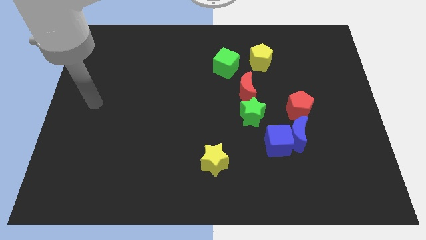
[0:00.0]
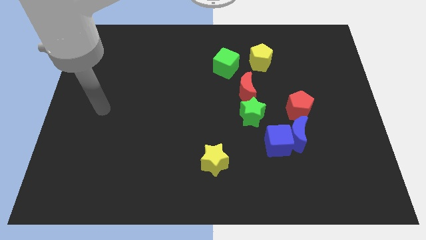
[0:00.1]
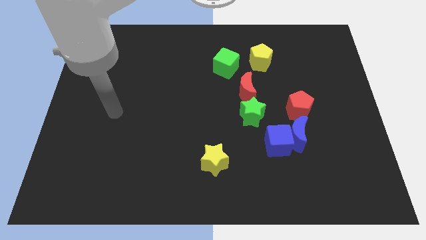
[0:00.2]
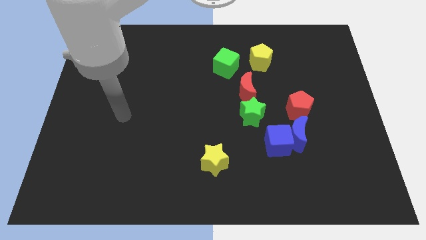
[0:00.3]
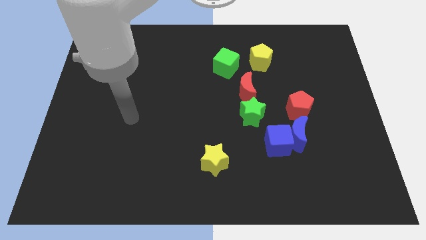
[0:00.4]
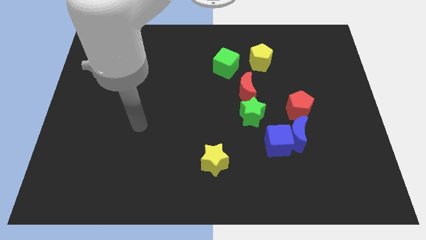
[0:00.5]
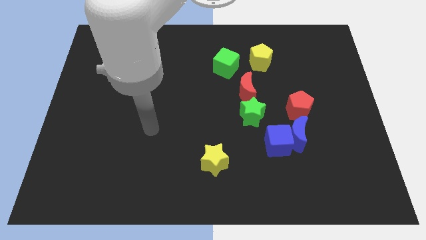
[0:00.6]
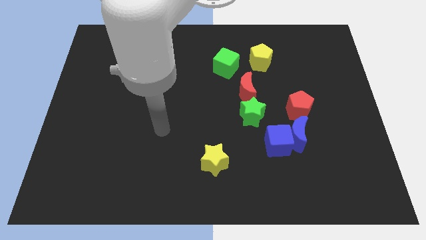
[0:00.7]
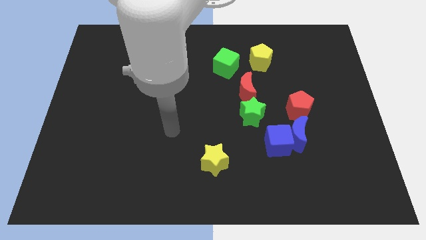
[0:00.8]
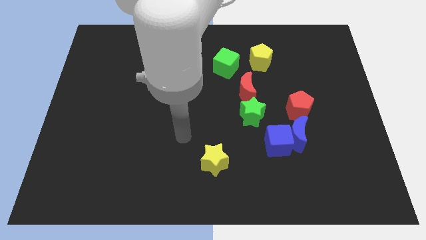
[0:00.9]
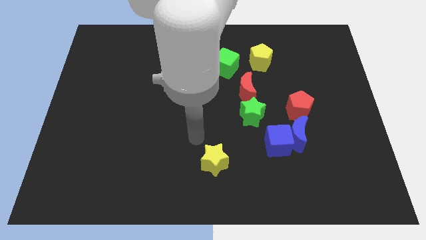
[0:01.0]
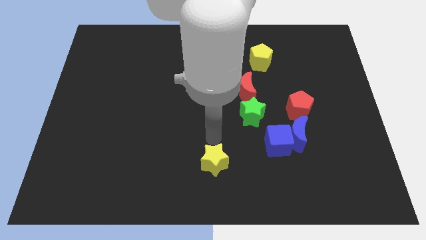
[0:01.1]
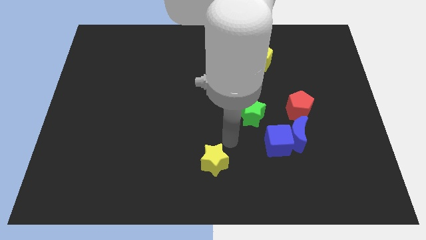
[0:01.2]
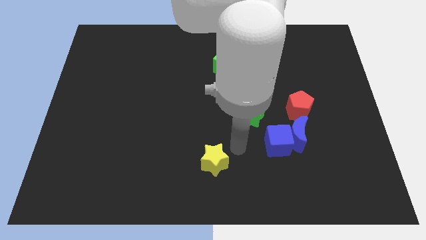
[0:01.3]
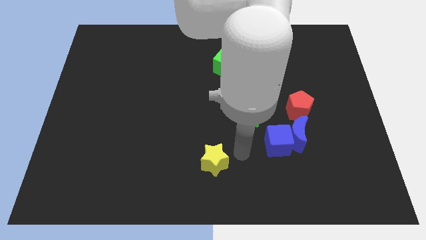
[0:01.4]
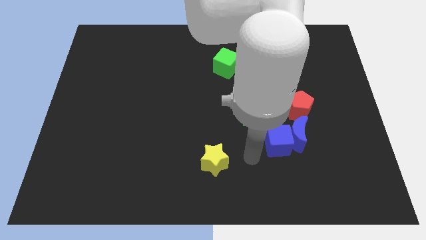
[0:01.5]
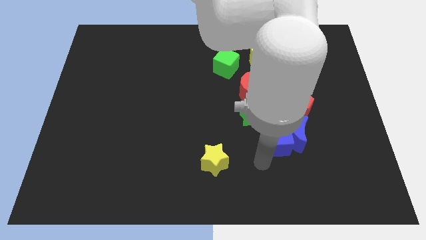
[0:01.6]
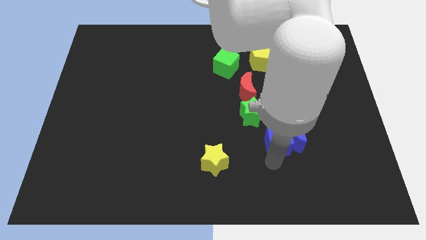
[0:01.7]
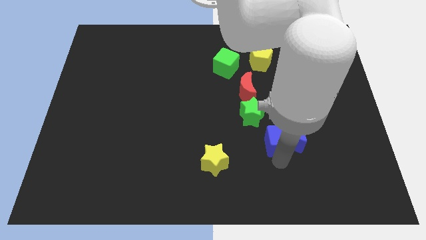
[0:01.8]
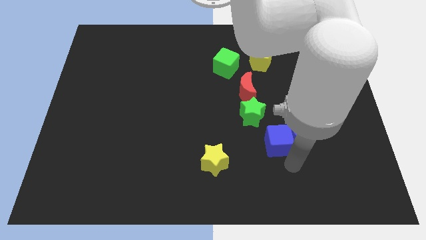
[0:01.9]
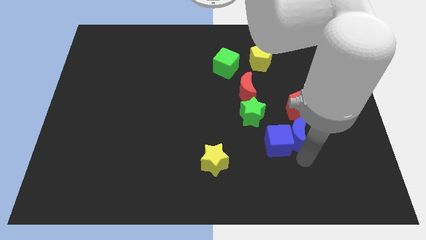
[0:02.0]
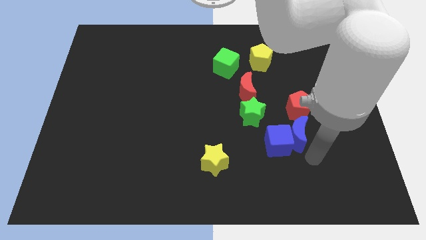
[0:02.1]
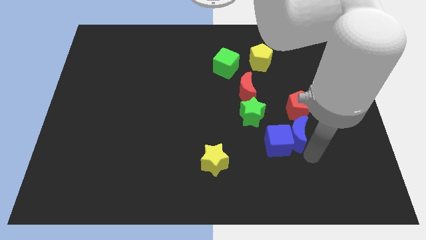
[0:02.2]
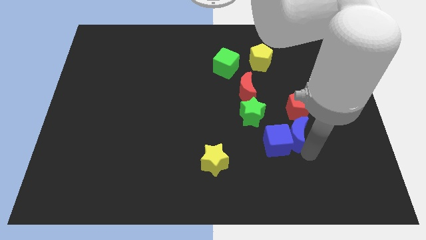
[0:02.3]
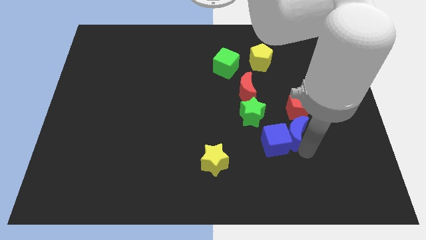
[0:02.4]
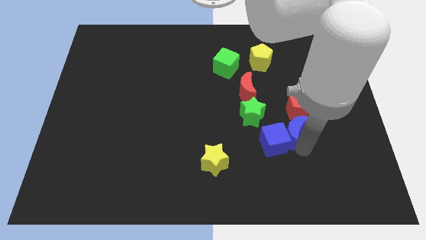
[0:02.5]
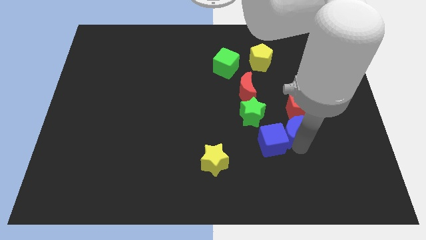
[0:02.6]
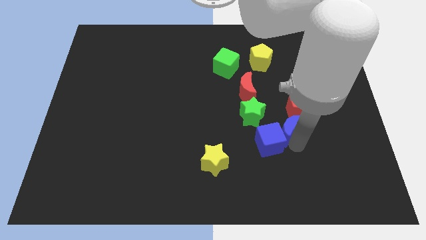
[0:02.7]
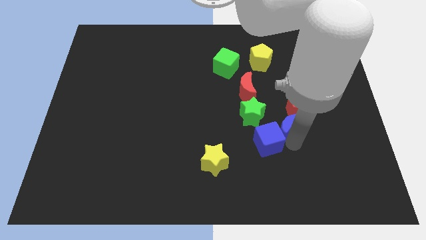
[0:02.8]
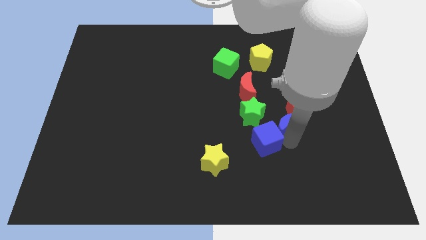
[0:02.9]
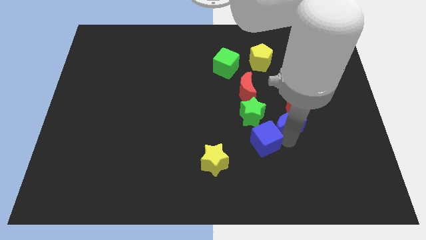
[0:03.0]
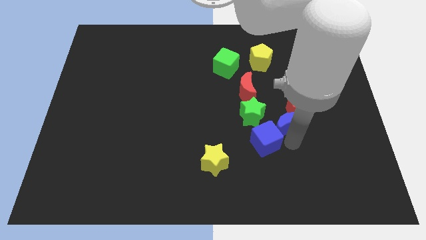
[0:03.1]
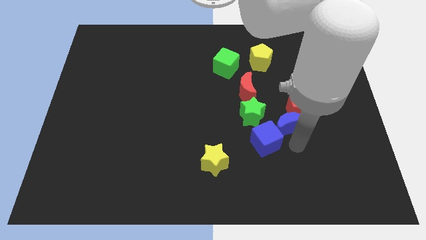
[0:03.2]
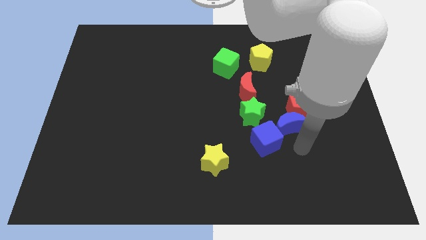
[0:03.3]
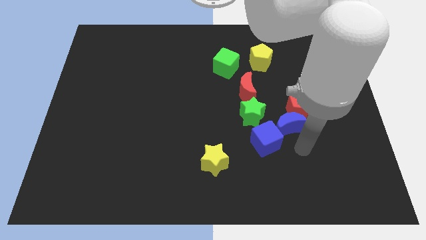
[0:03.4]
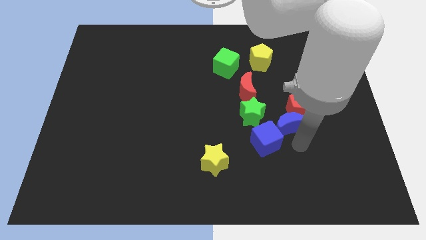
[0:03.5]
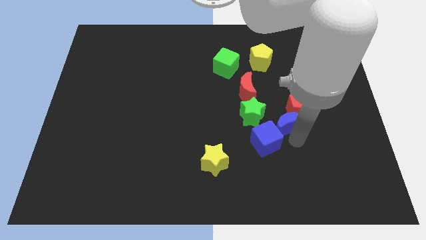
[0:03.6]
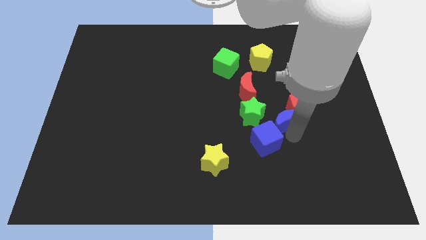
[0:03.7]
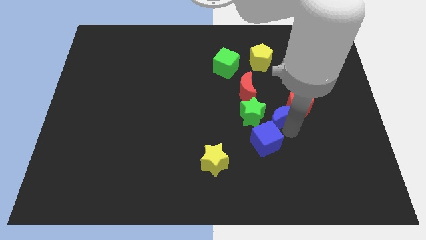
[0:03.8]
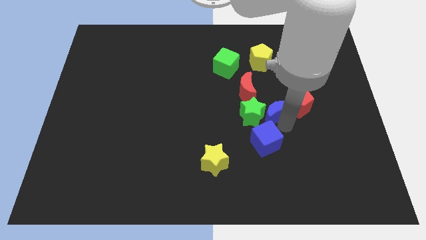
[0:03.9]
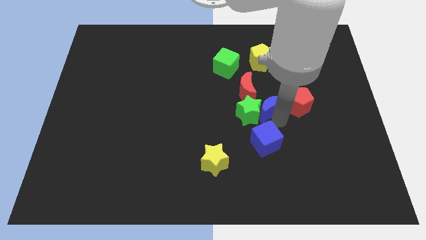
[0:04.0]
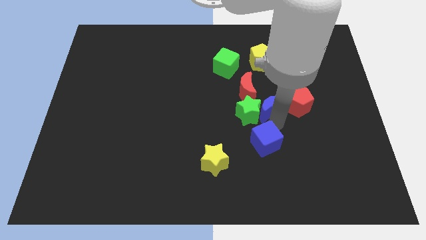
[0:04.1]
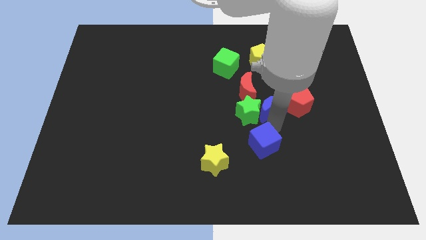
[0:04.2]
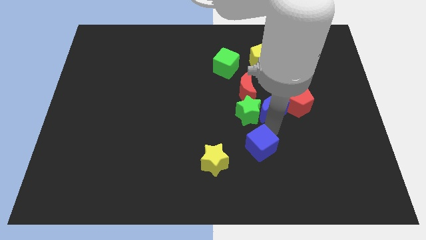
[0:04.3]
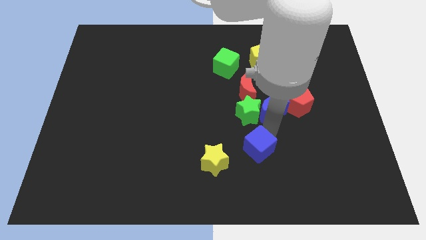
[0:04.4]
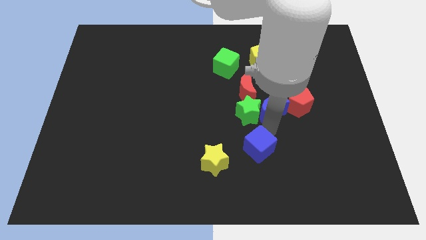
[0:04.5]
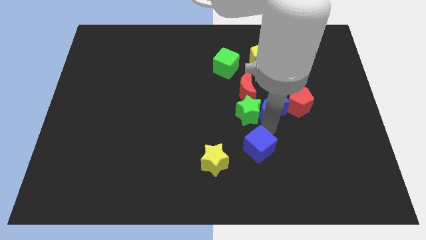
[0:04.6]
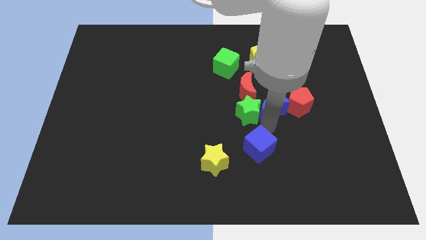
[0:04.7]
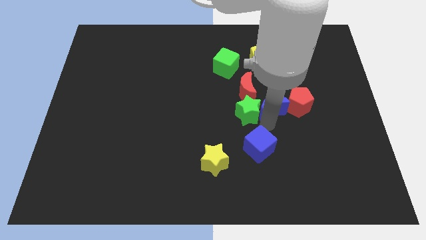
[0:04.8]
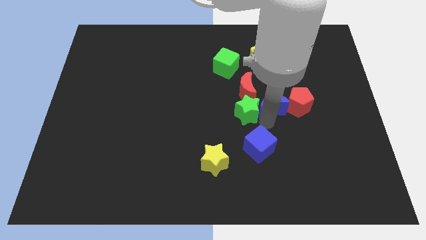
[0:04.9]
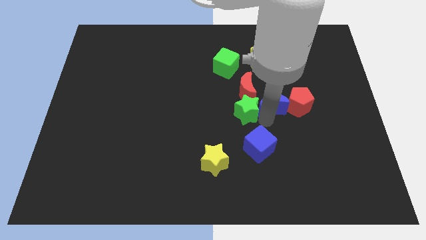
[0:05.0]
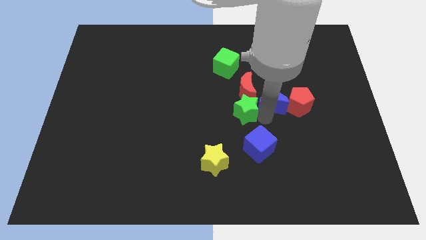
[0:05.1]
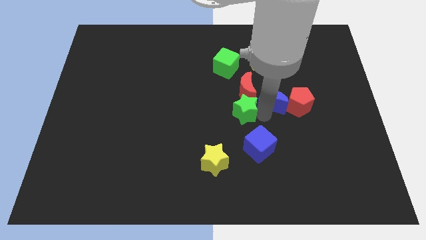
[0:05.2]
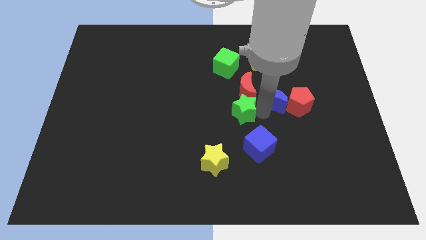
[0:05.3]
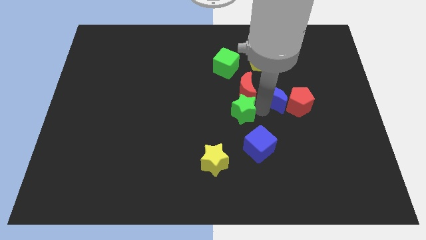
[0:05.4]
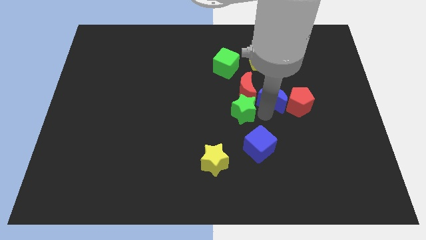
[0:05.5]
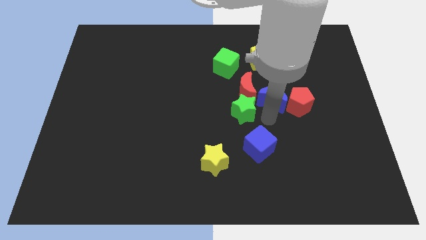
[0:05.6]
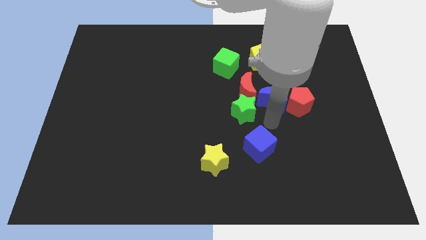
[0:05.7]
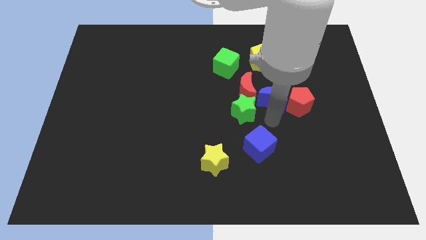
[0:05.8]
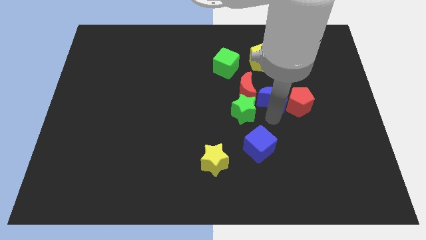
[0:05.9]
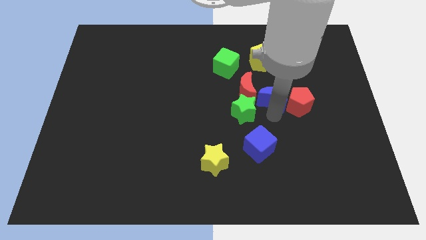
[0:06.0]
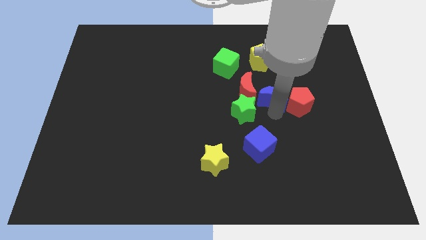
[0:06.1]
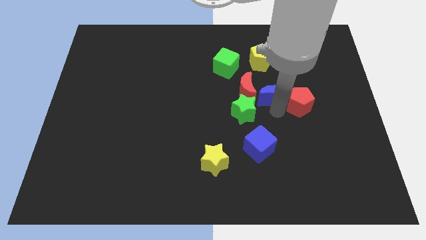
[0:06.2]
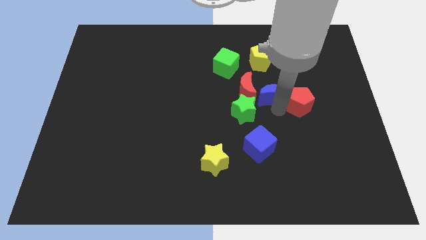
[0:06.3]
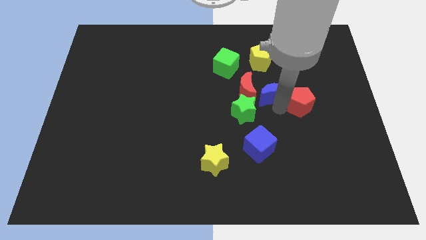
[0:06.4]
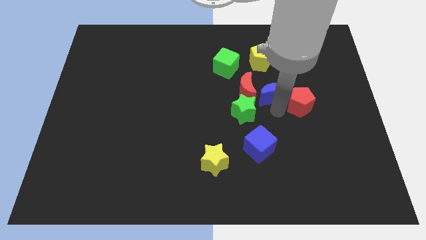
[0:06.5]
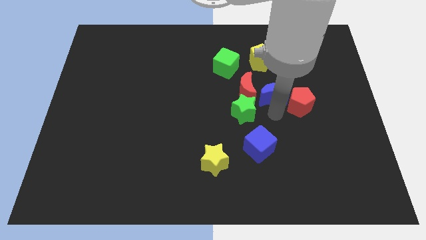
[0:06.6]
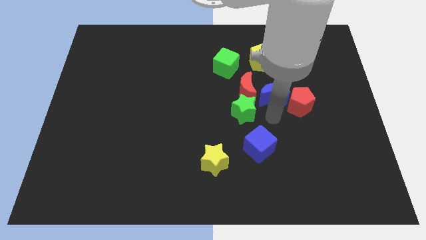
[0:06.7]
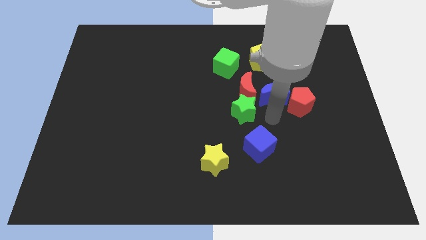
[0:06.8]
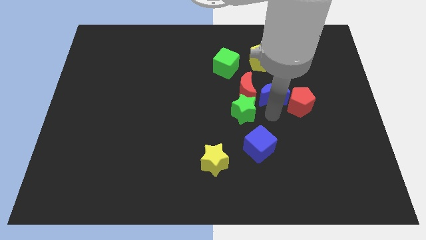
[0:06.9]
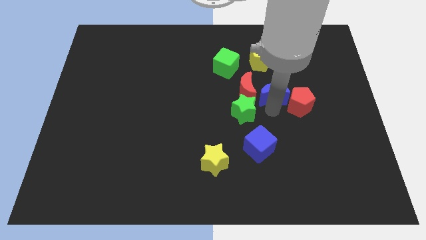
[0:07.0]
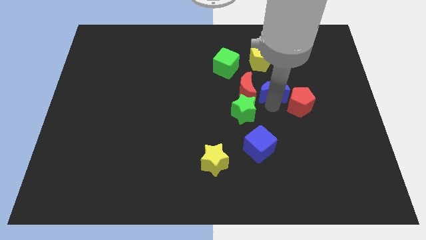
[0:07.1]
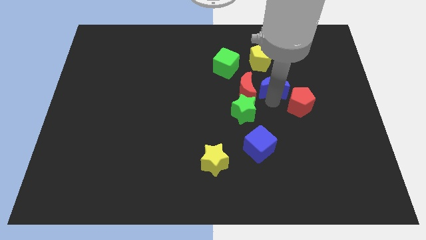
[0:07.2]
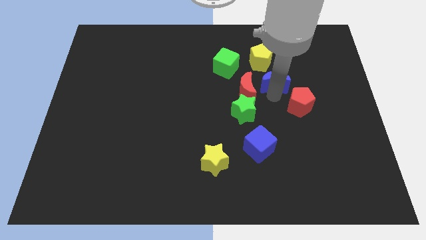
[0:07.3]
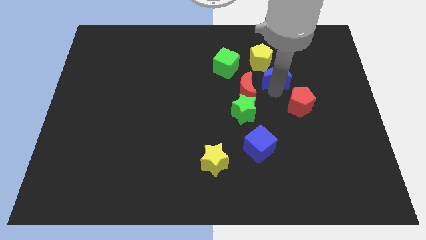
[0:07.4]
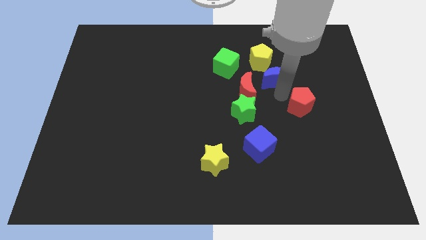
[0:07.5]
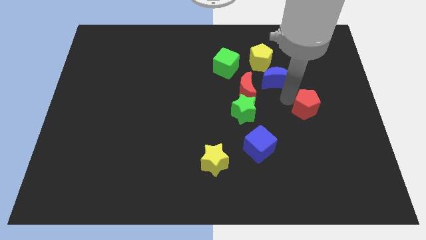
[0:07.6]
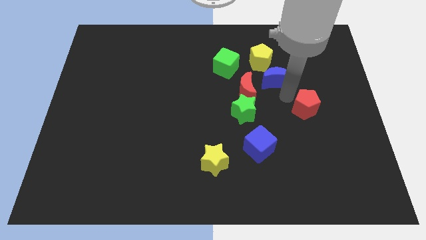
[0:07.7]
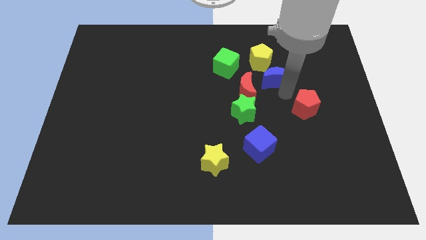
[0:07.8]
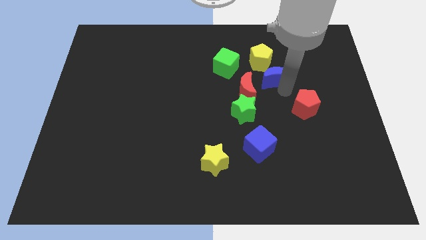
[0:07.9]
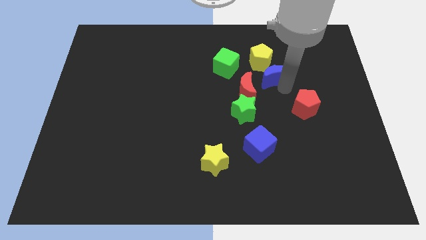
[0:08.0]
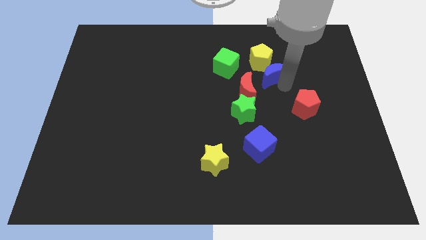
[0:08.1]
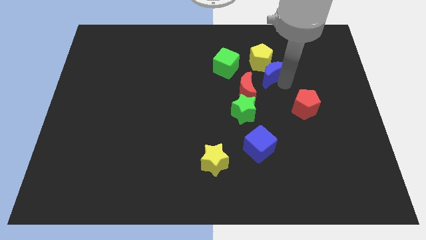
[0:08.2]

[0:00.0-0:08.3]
slide the blue moon next to the yellow pentagon
